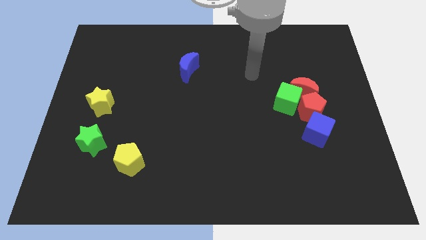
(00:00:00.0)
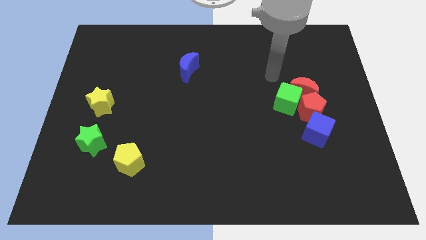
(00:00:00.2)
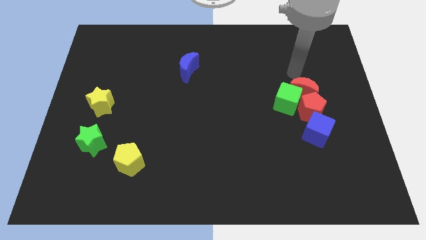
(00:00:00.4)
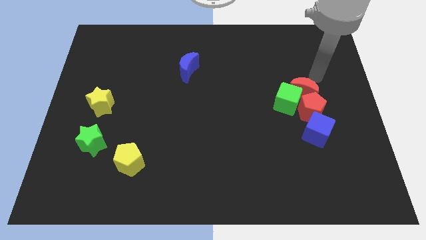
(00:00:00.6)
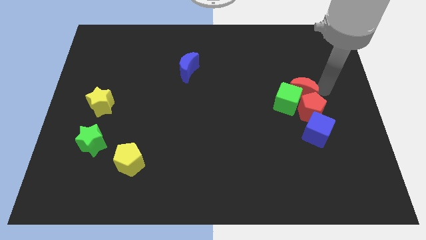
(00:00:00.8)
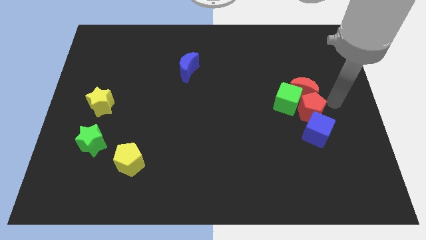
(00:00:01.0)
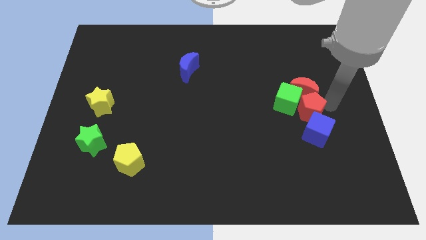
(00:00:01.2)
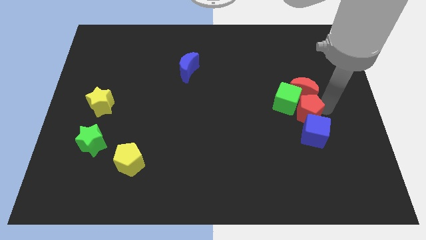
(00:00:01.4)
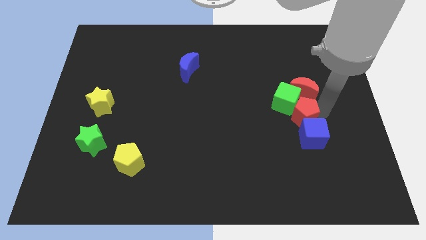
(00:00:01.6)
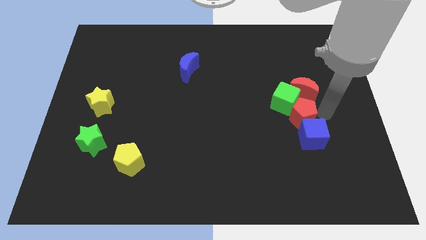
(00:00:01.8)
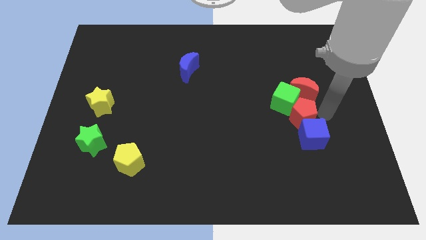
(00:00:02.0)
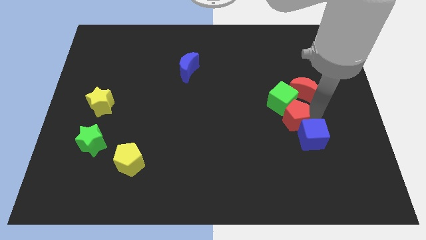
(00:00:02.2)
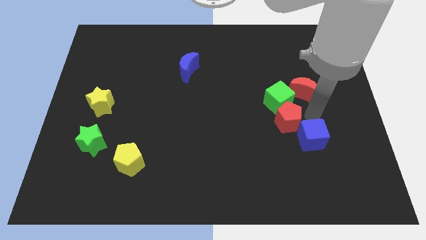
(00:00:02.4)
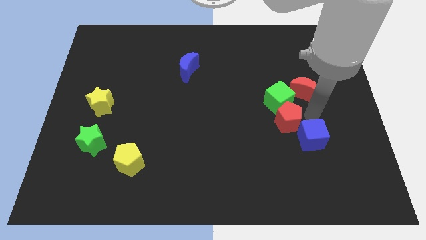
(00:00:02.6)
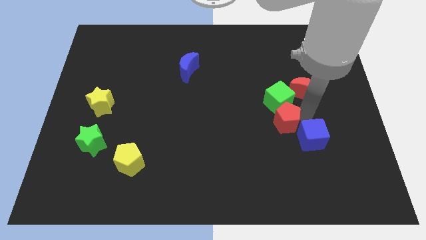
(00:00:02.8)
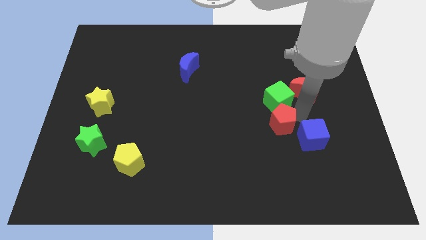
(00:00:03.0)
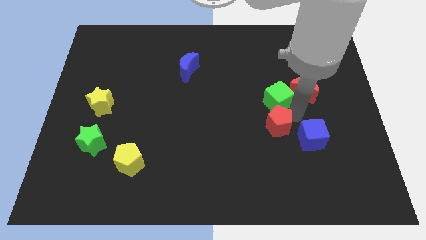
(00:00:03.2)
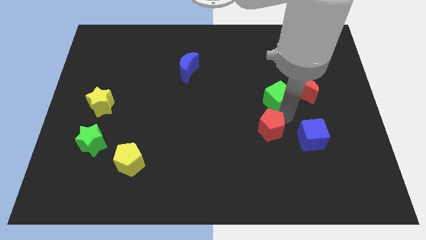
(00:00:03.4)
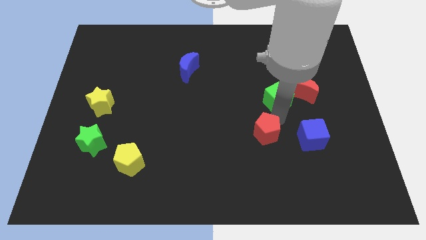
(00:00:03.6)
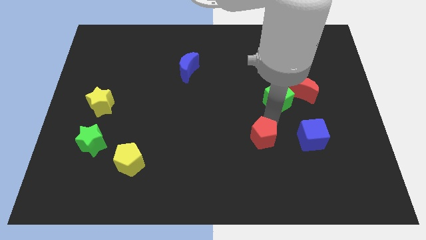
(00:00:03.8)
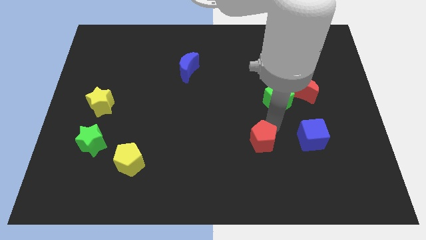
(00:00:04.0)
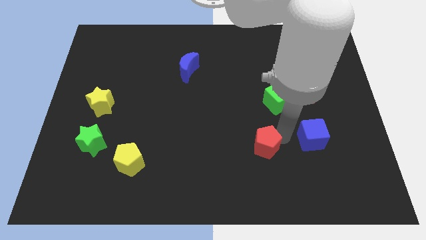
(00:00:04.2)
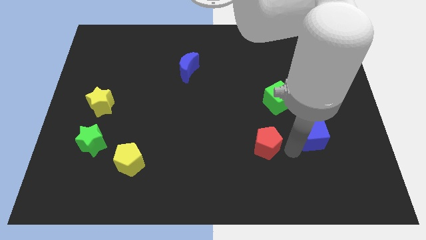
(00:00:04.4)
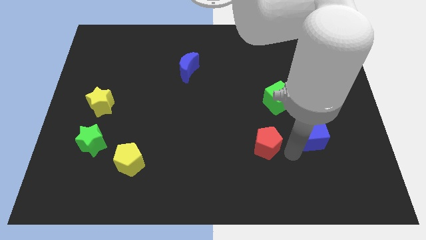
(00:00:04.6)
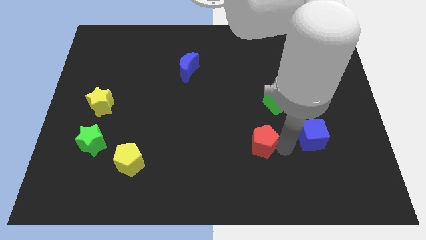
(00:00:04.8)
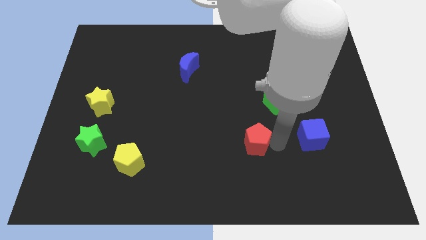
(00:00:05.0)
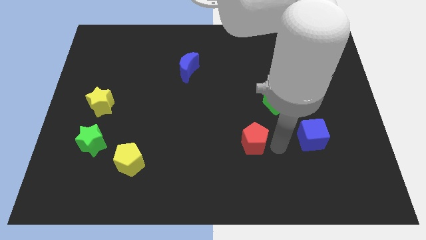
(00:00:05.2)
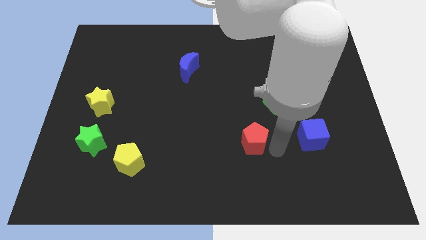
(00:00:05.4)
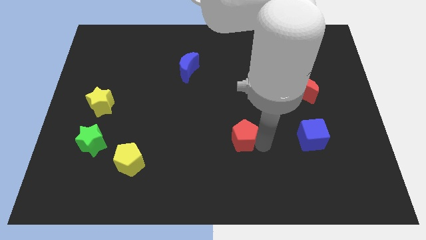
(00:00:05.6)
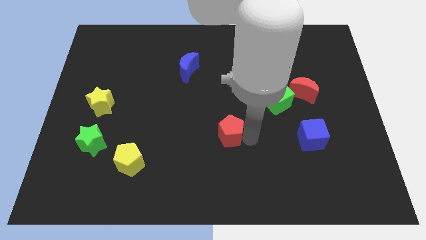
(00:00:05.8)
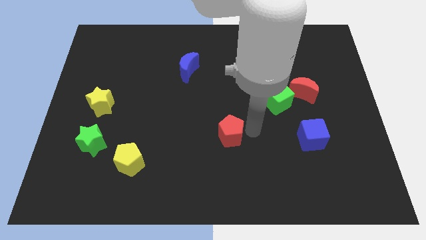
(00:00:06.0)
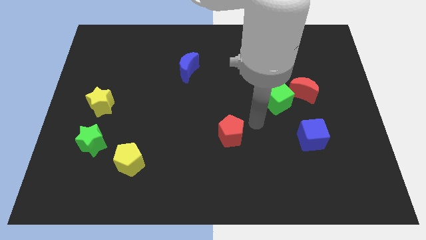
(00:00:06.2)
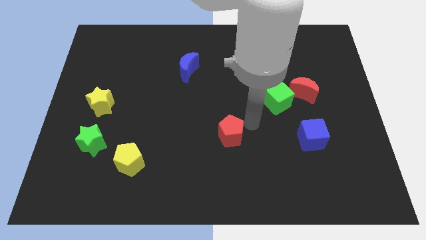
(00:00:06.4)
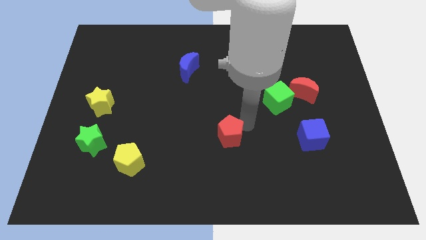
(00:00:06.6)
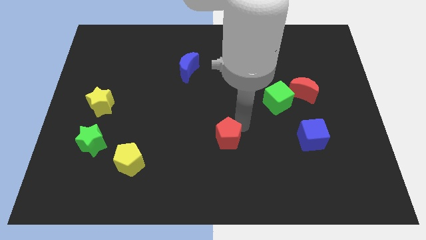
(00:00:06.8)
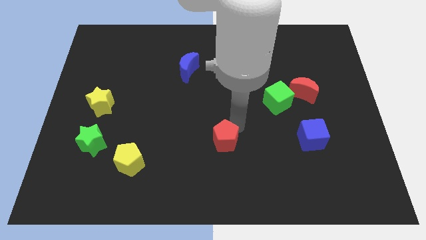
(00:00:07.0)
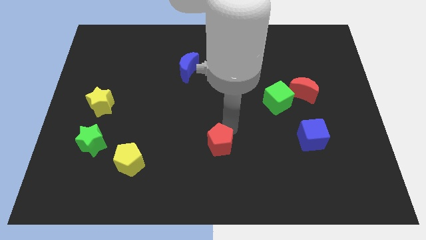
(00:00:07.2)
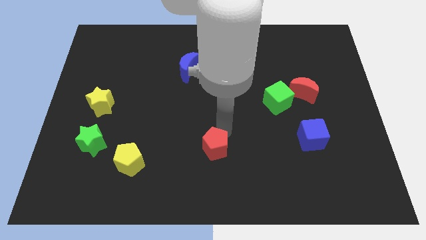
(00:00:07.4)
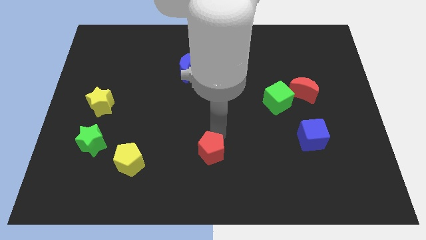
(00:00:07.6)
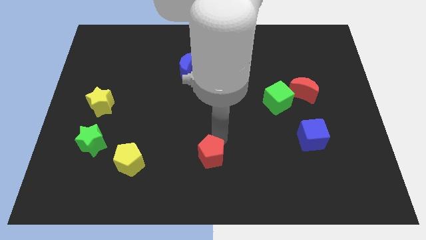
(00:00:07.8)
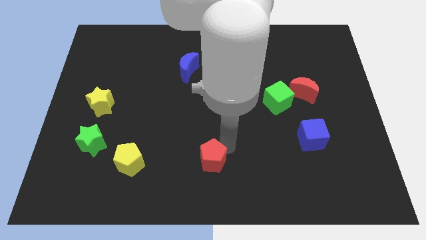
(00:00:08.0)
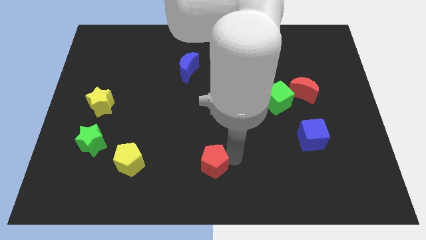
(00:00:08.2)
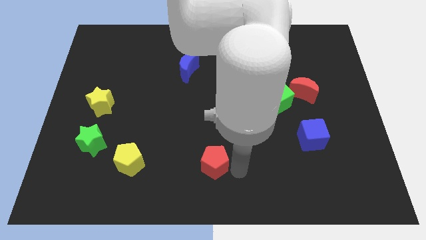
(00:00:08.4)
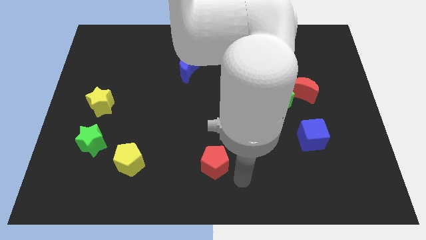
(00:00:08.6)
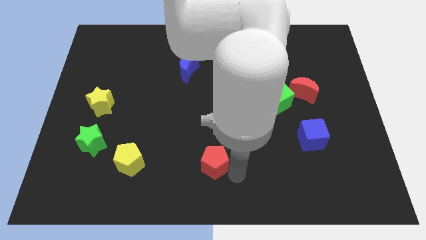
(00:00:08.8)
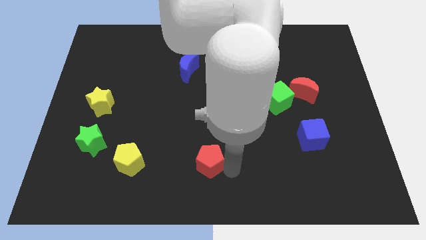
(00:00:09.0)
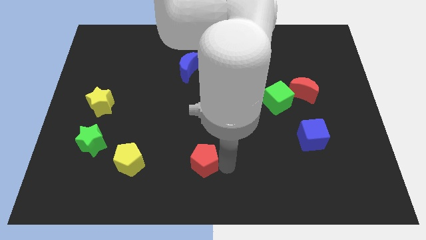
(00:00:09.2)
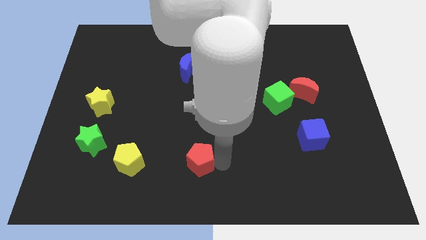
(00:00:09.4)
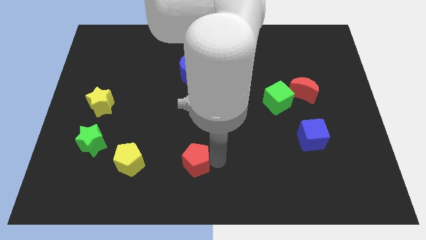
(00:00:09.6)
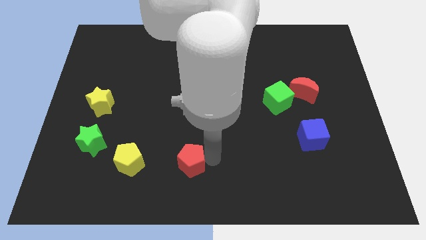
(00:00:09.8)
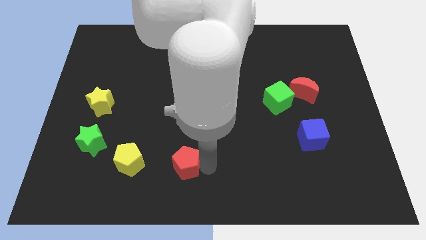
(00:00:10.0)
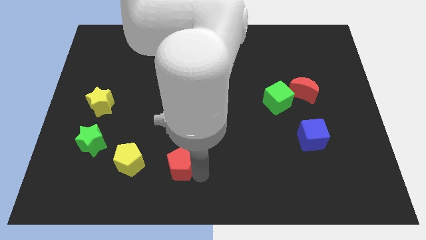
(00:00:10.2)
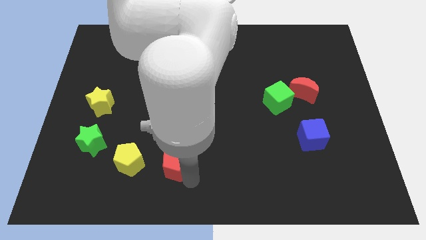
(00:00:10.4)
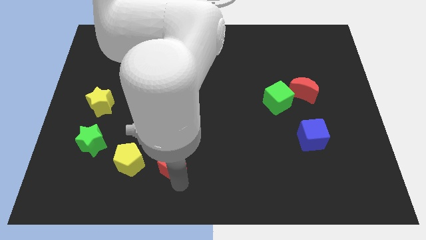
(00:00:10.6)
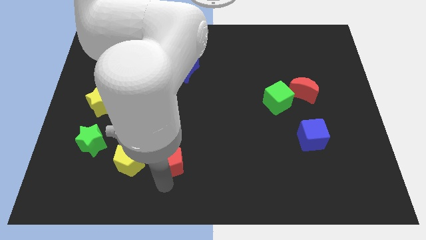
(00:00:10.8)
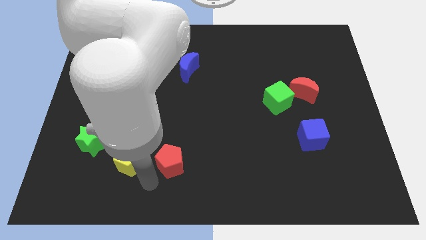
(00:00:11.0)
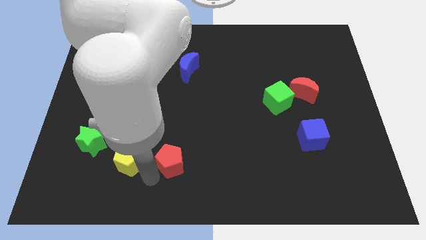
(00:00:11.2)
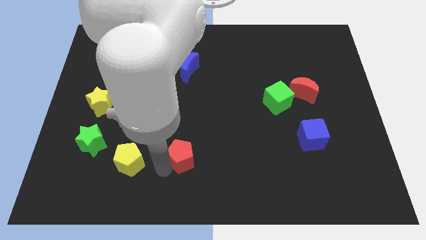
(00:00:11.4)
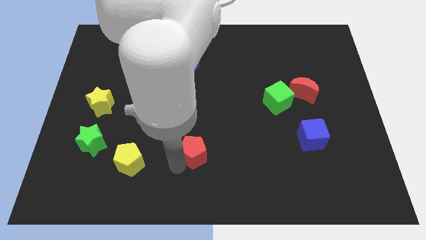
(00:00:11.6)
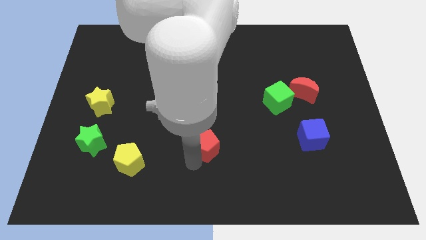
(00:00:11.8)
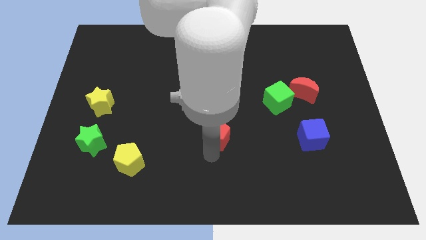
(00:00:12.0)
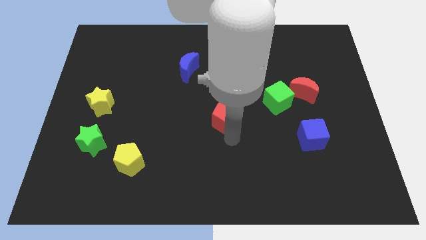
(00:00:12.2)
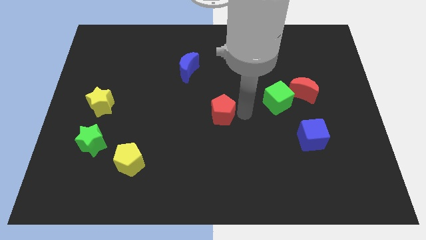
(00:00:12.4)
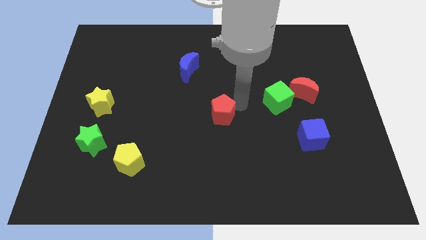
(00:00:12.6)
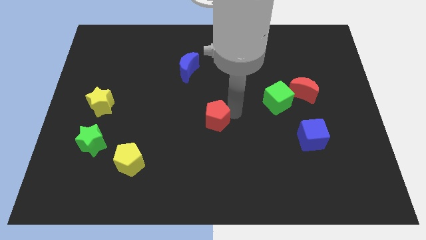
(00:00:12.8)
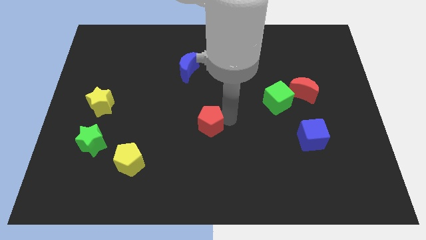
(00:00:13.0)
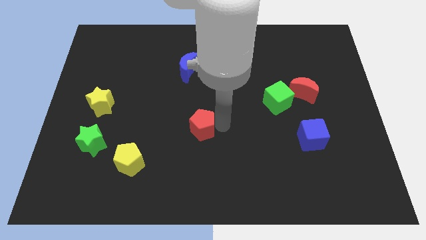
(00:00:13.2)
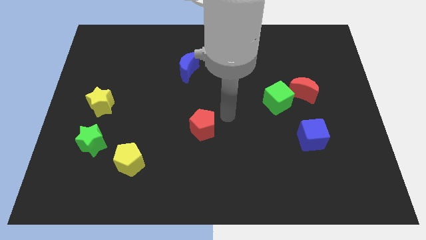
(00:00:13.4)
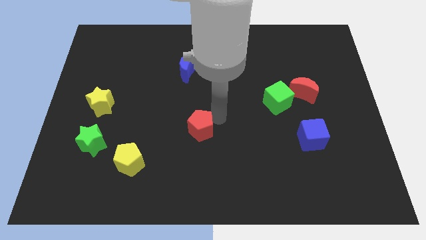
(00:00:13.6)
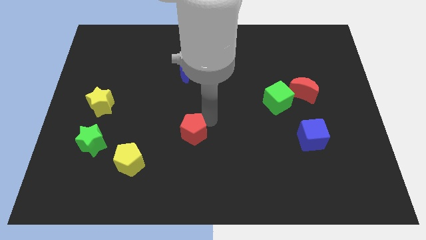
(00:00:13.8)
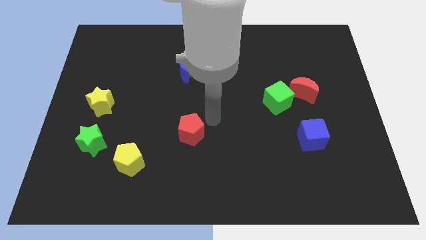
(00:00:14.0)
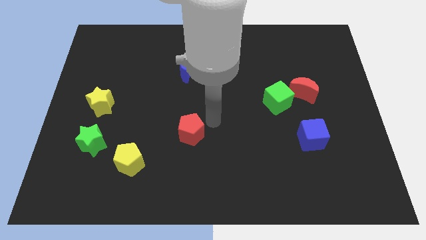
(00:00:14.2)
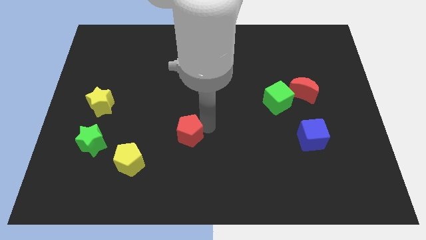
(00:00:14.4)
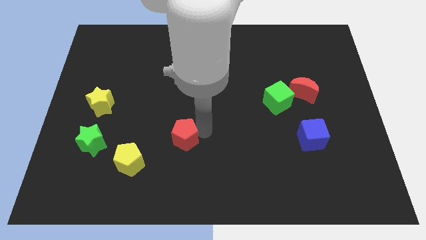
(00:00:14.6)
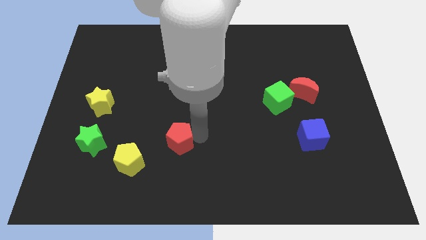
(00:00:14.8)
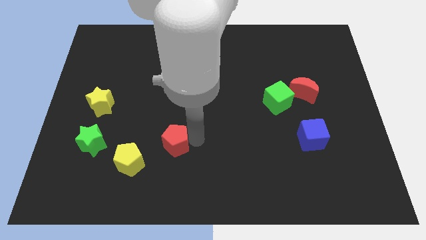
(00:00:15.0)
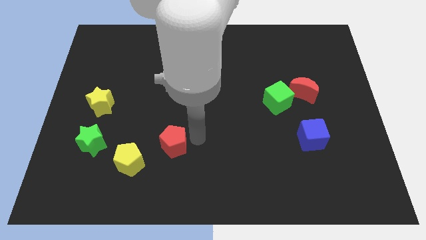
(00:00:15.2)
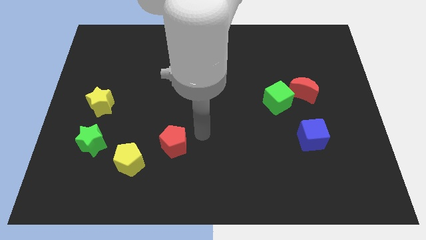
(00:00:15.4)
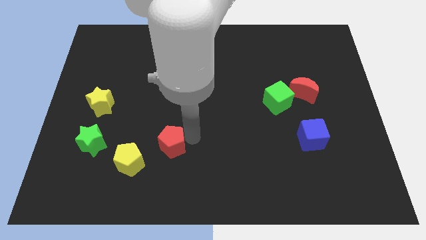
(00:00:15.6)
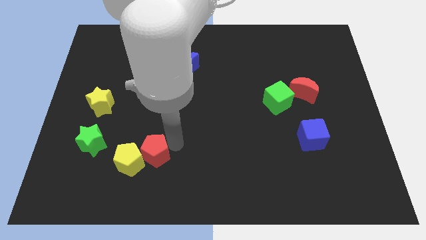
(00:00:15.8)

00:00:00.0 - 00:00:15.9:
slide the red pentagon to the yellow pentagon
